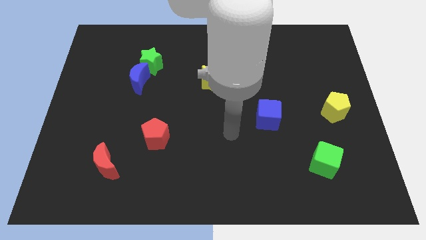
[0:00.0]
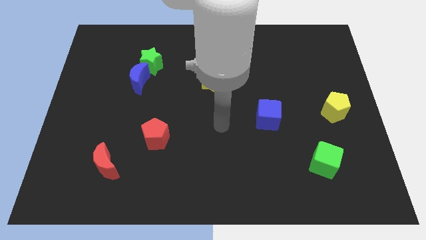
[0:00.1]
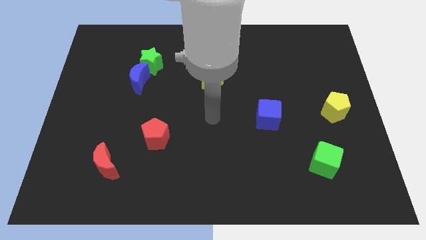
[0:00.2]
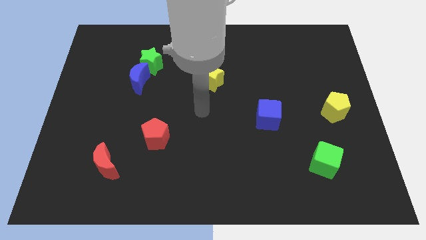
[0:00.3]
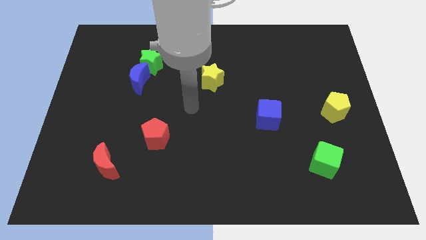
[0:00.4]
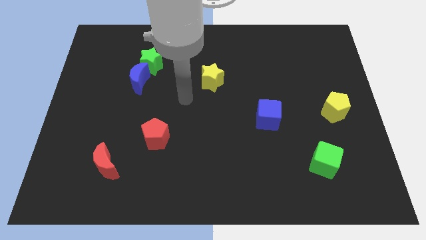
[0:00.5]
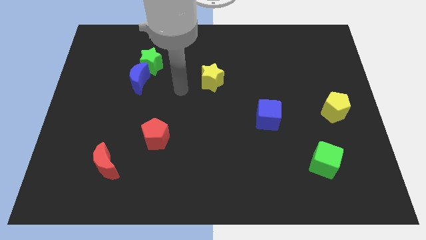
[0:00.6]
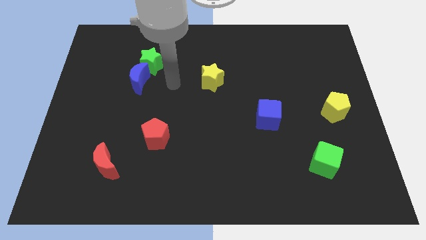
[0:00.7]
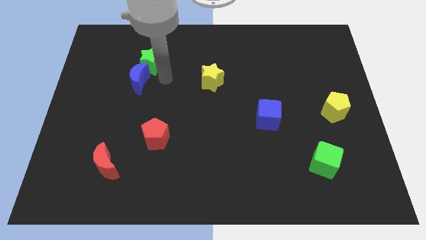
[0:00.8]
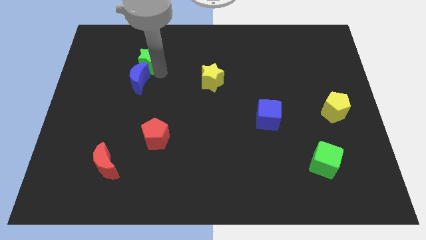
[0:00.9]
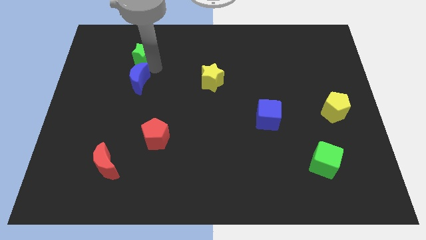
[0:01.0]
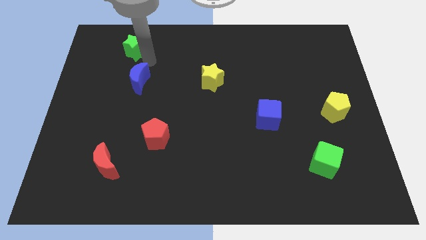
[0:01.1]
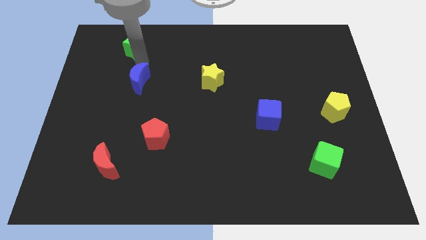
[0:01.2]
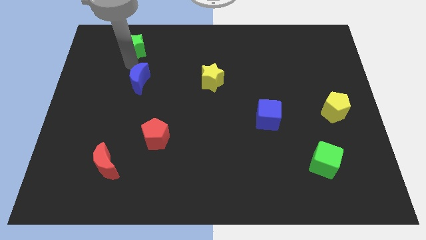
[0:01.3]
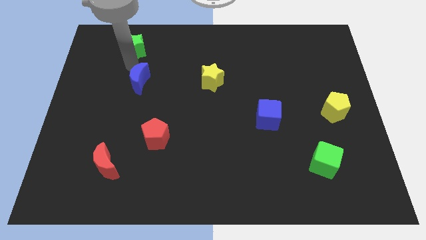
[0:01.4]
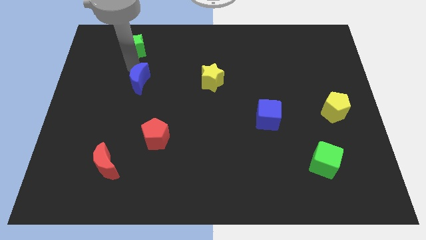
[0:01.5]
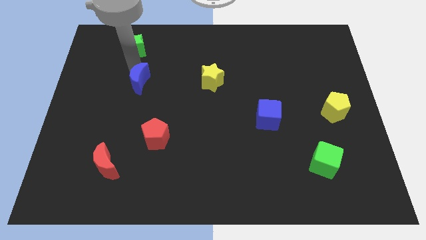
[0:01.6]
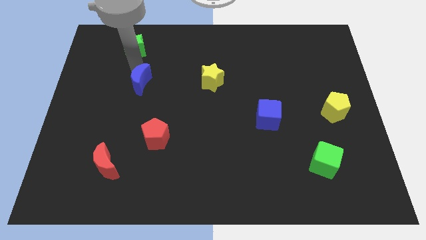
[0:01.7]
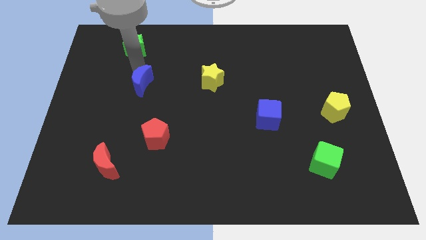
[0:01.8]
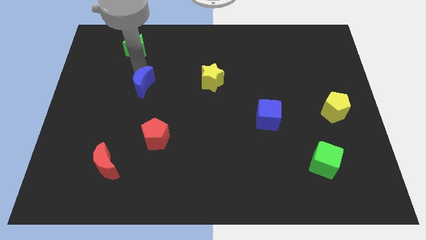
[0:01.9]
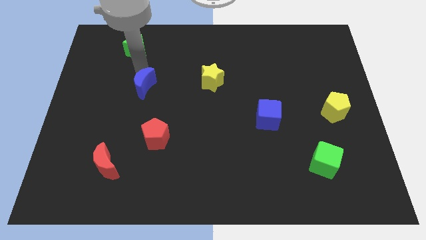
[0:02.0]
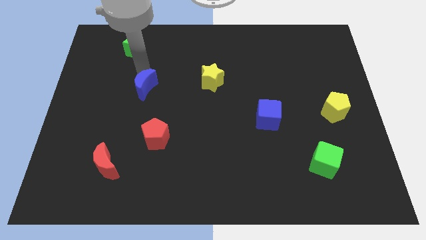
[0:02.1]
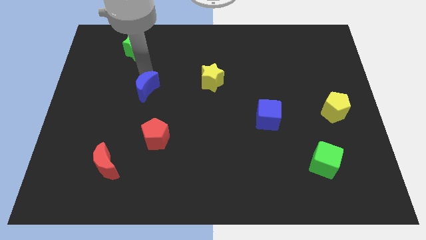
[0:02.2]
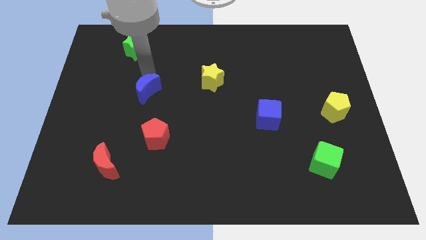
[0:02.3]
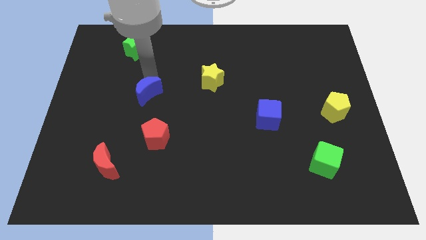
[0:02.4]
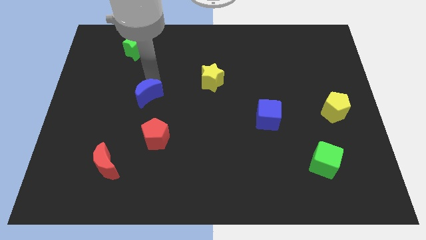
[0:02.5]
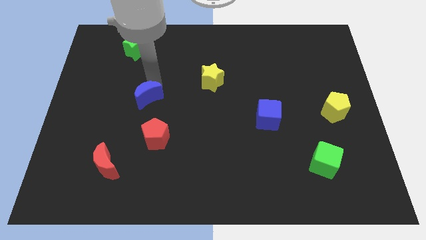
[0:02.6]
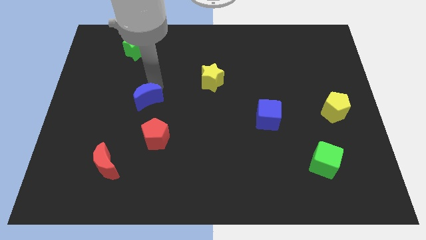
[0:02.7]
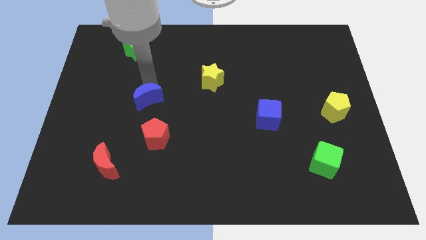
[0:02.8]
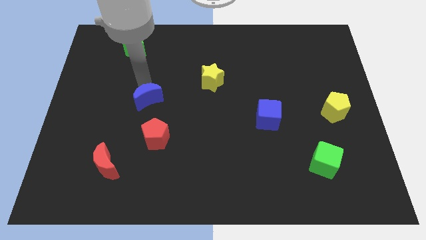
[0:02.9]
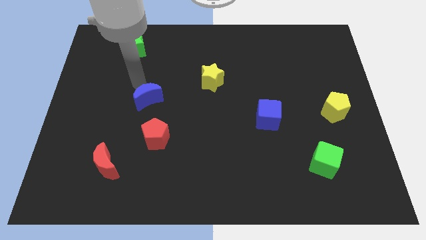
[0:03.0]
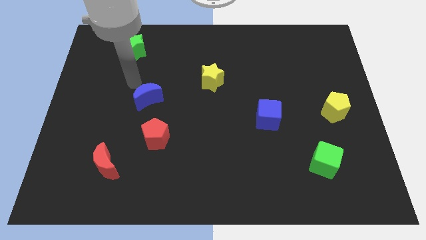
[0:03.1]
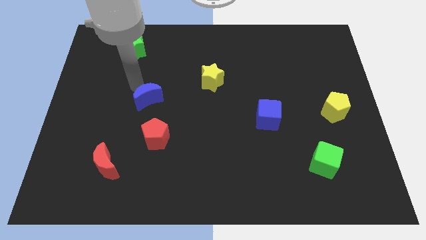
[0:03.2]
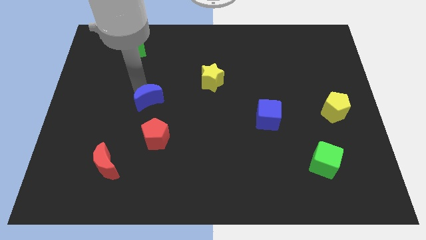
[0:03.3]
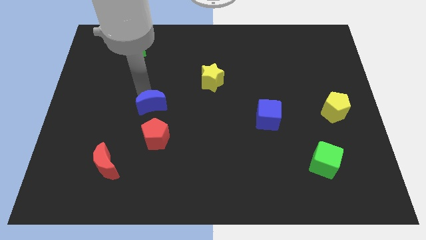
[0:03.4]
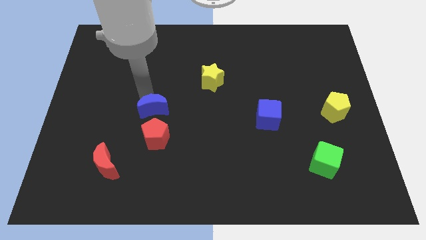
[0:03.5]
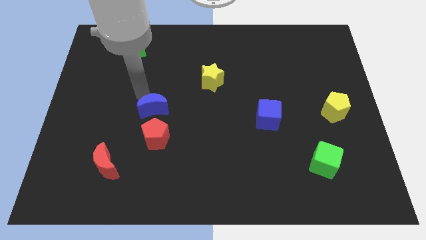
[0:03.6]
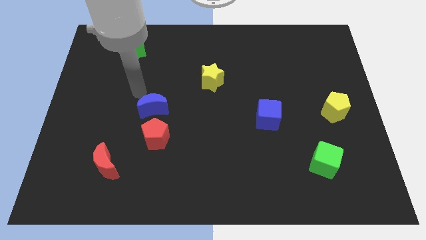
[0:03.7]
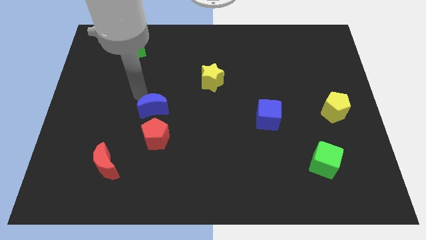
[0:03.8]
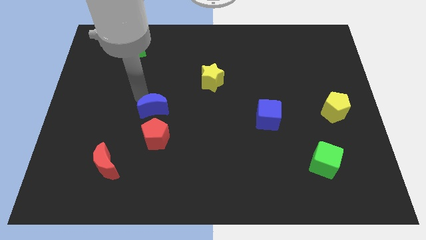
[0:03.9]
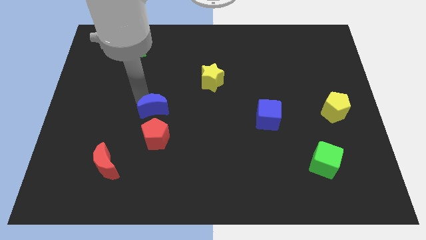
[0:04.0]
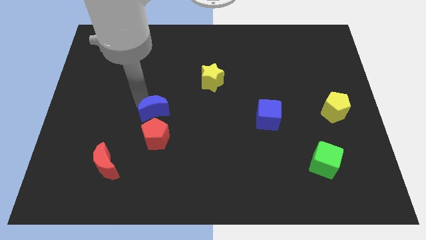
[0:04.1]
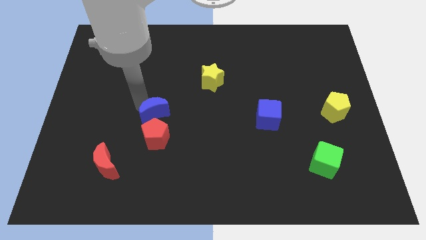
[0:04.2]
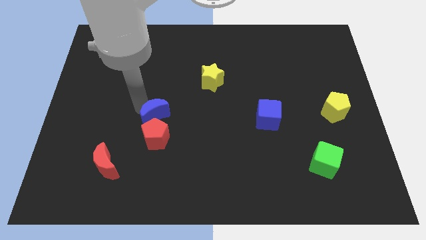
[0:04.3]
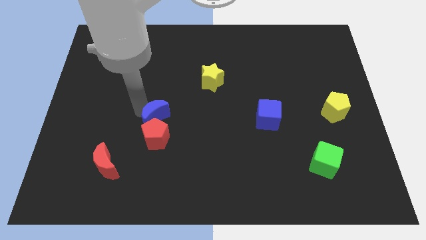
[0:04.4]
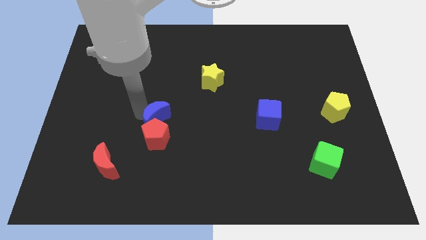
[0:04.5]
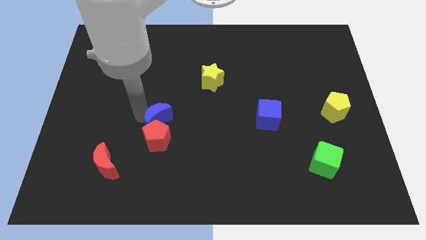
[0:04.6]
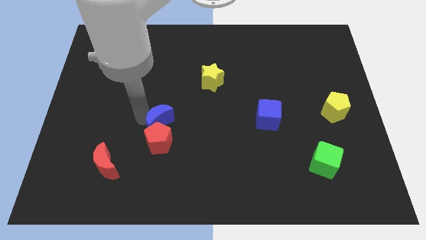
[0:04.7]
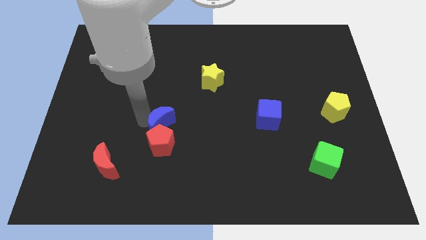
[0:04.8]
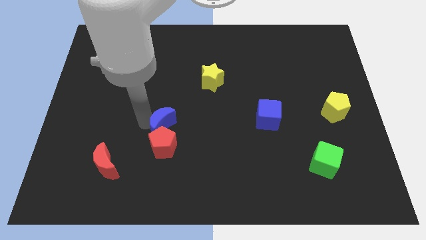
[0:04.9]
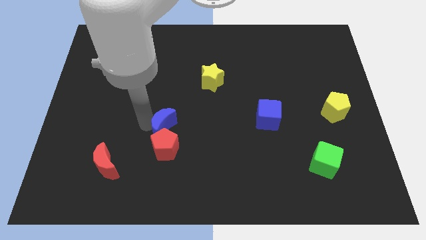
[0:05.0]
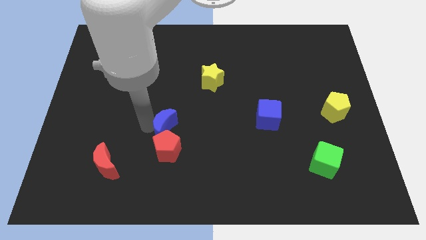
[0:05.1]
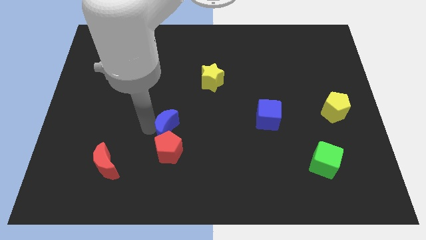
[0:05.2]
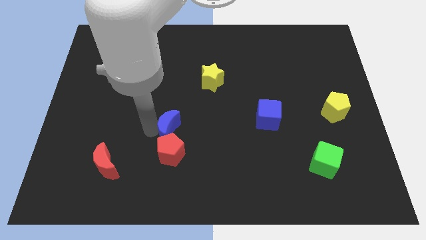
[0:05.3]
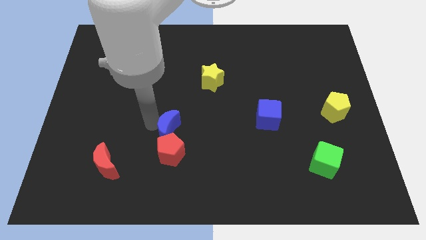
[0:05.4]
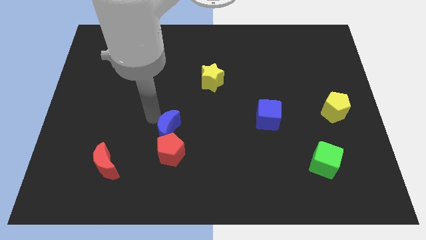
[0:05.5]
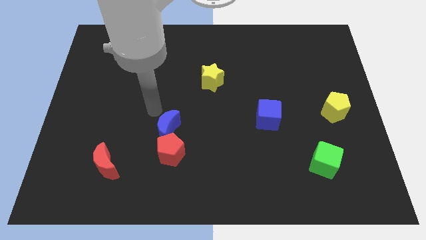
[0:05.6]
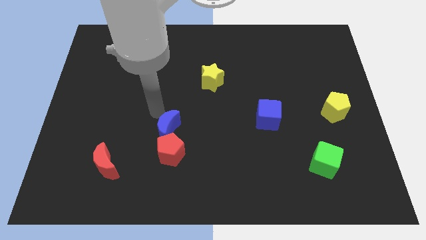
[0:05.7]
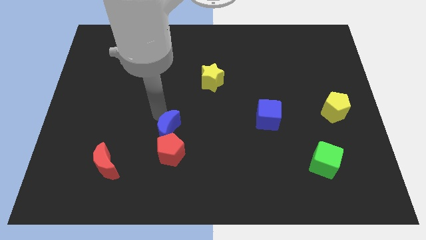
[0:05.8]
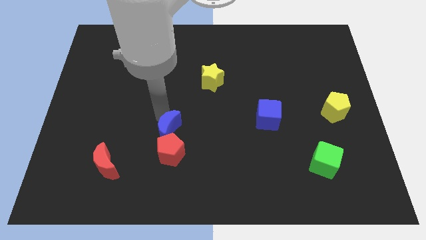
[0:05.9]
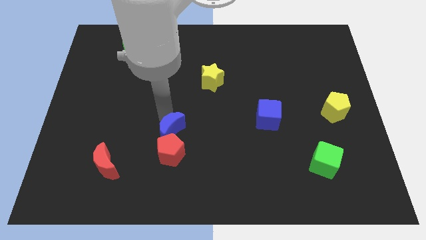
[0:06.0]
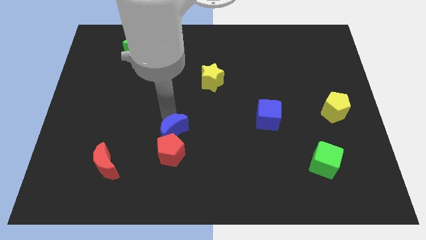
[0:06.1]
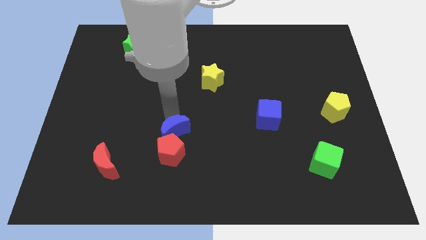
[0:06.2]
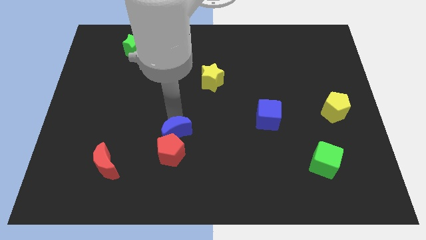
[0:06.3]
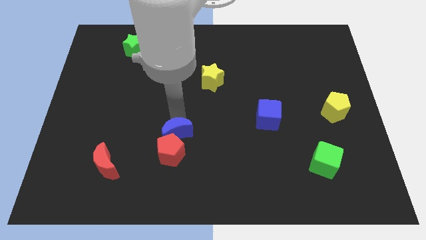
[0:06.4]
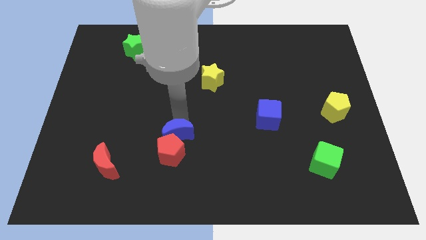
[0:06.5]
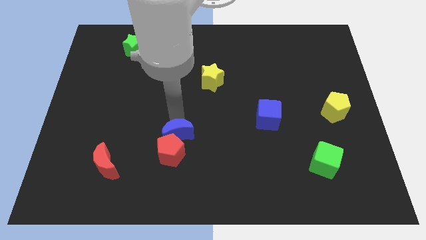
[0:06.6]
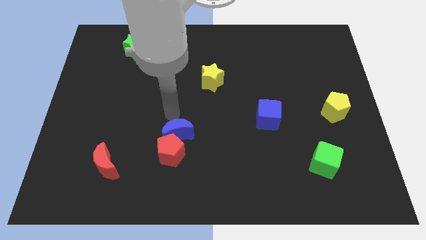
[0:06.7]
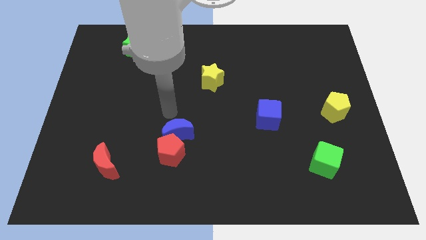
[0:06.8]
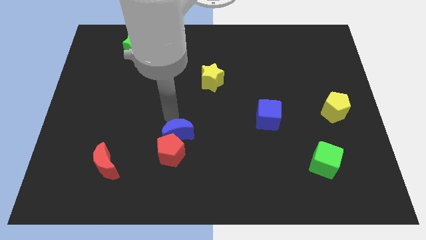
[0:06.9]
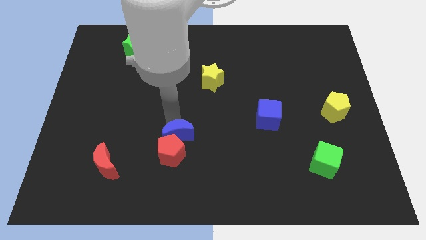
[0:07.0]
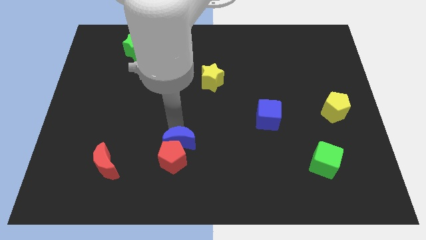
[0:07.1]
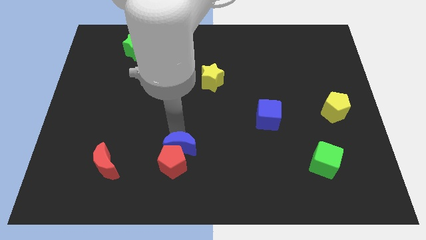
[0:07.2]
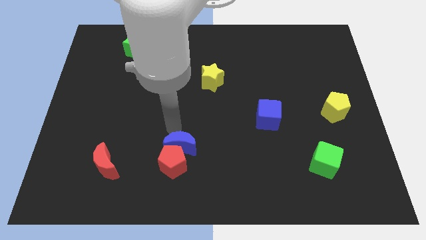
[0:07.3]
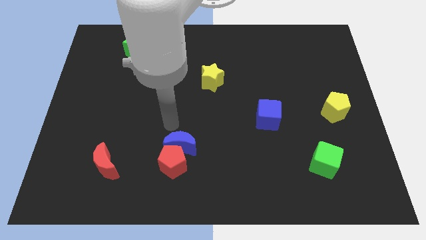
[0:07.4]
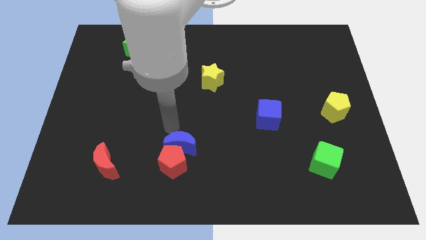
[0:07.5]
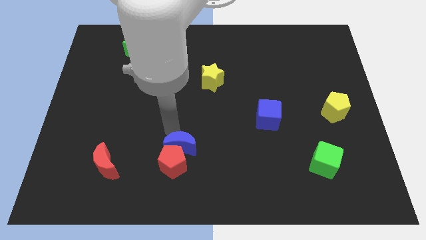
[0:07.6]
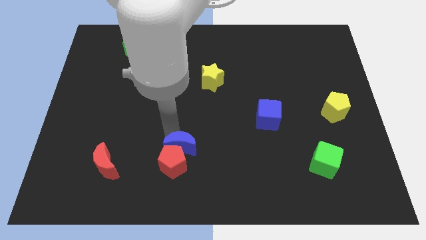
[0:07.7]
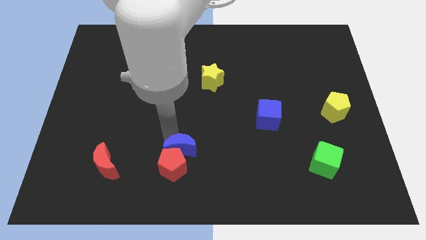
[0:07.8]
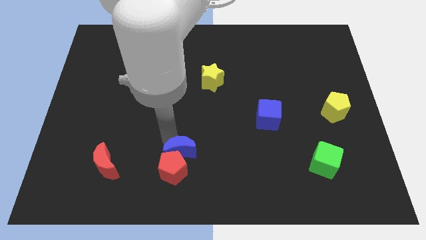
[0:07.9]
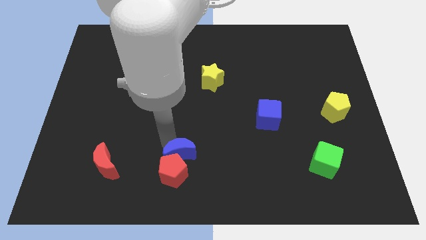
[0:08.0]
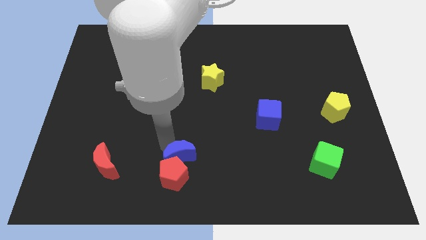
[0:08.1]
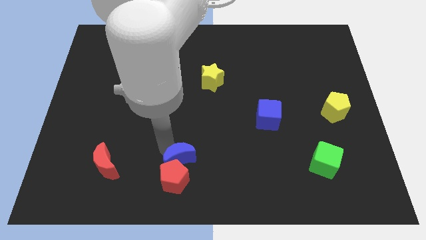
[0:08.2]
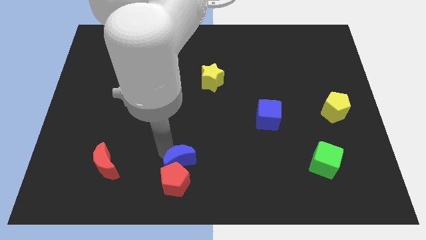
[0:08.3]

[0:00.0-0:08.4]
push the blue moon to the bottom
